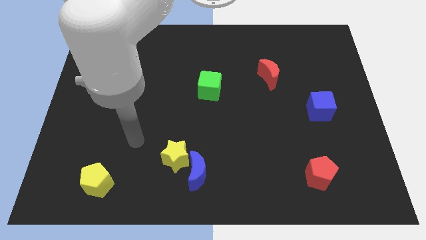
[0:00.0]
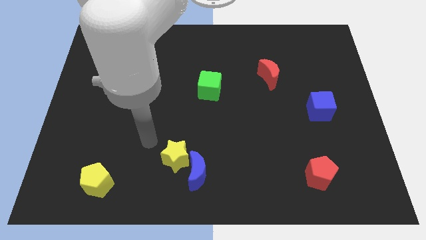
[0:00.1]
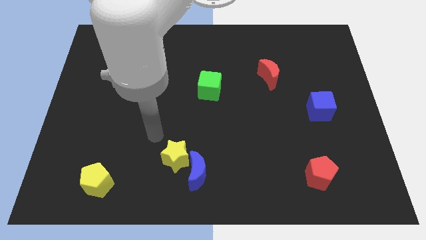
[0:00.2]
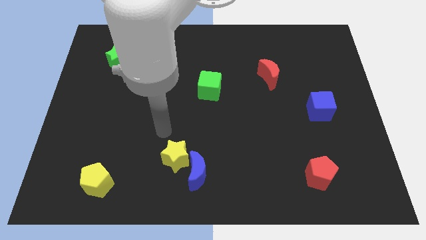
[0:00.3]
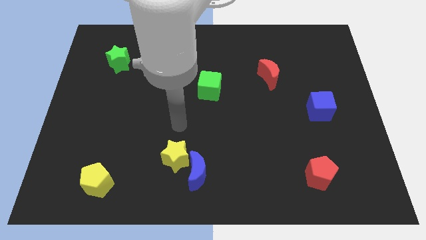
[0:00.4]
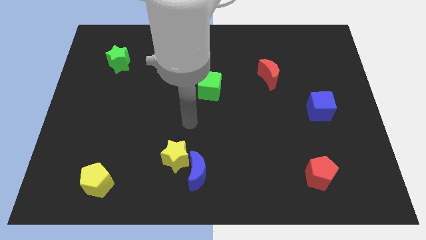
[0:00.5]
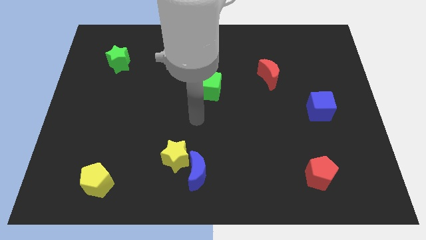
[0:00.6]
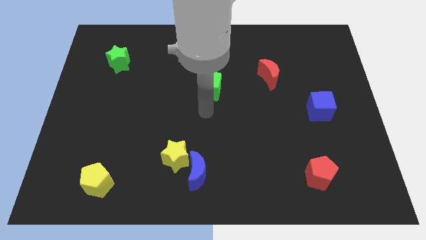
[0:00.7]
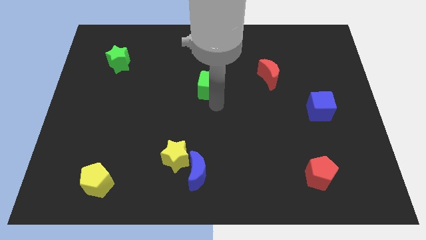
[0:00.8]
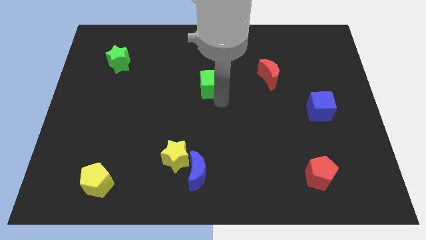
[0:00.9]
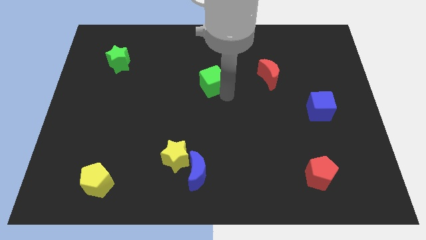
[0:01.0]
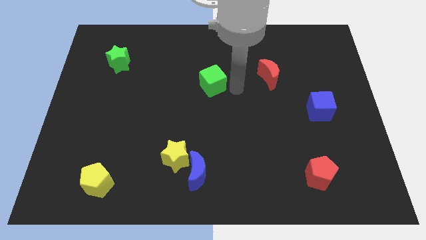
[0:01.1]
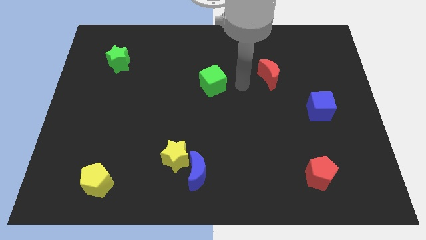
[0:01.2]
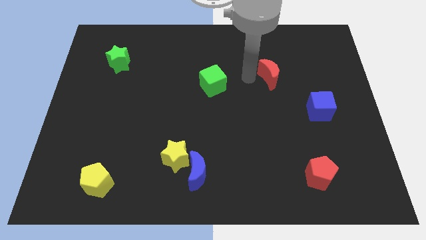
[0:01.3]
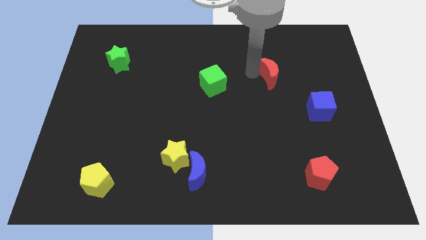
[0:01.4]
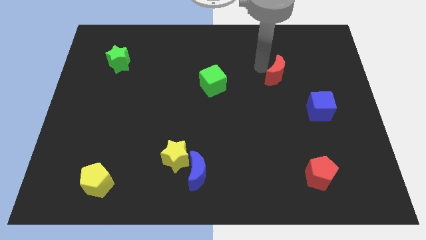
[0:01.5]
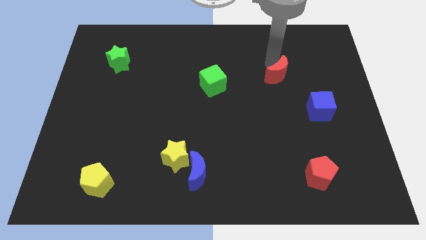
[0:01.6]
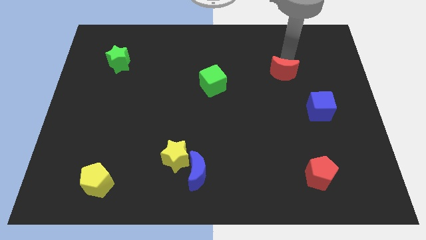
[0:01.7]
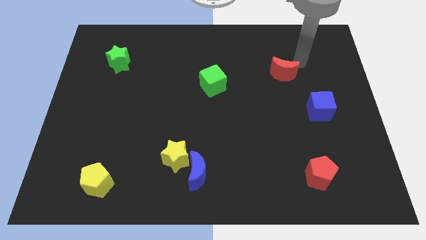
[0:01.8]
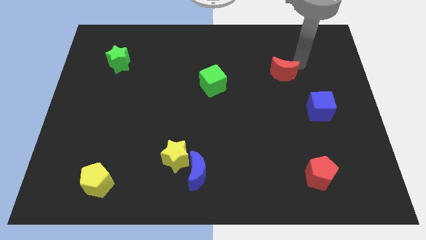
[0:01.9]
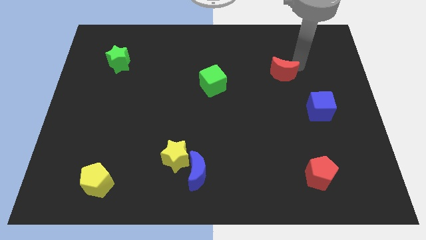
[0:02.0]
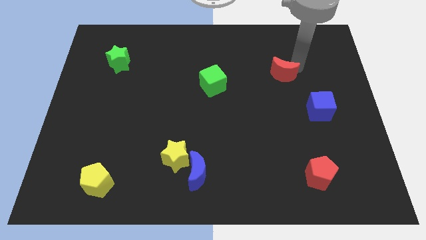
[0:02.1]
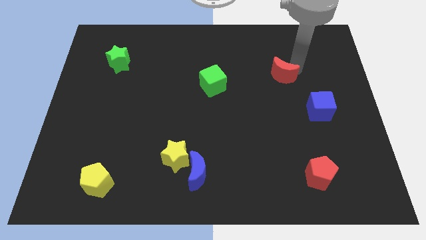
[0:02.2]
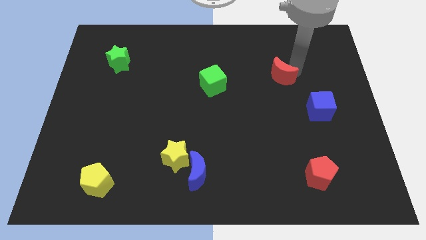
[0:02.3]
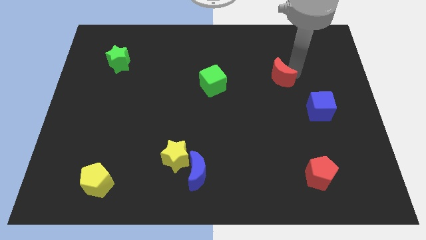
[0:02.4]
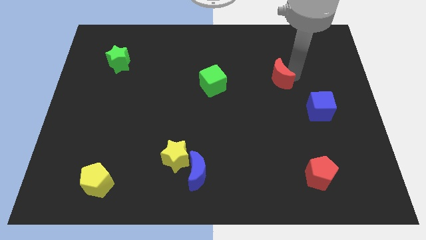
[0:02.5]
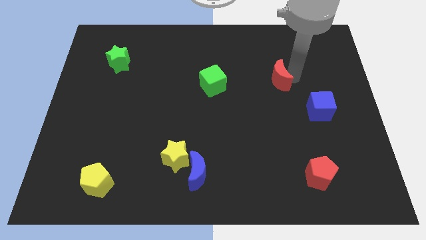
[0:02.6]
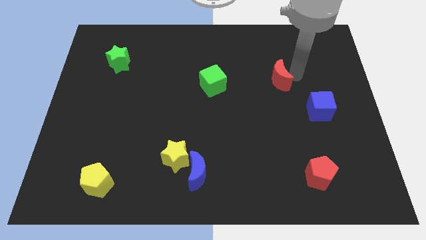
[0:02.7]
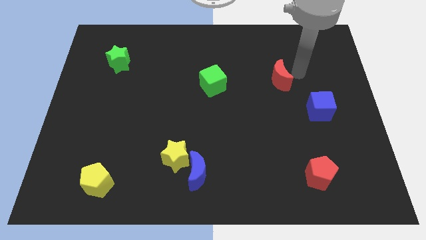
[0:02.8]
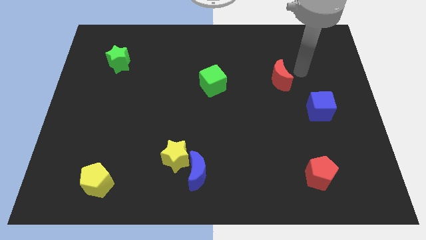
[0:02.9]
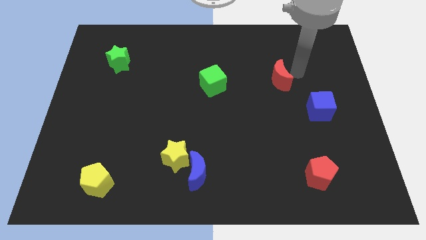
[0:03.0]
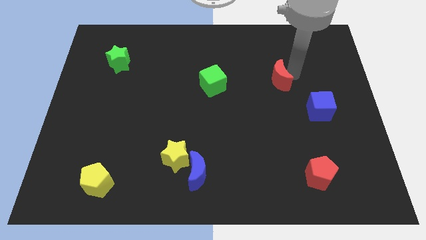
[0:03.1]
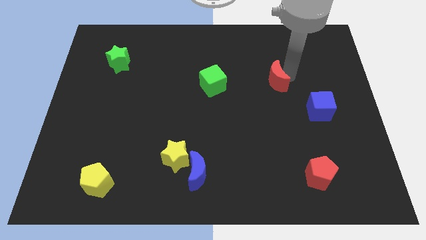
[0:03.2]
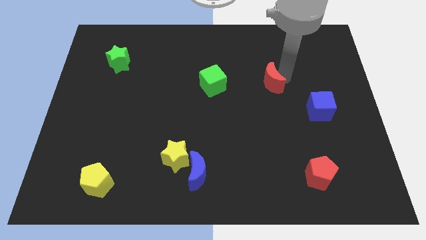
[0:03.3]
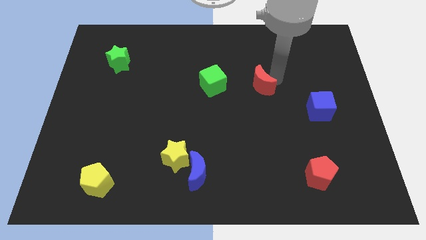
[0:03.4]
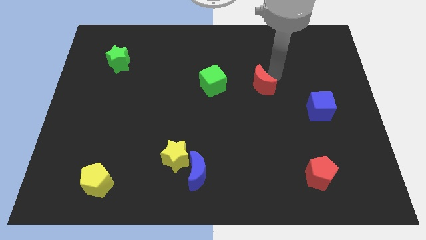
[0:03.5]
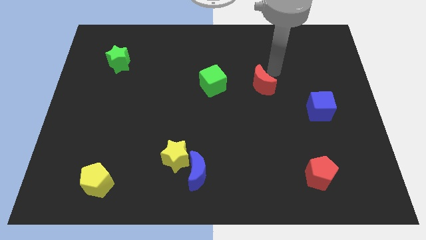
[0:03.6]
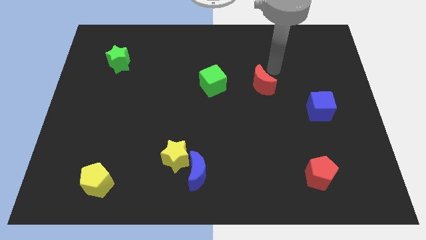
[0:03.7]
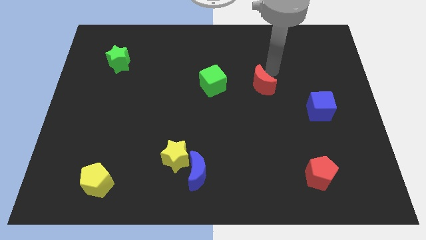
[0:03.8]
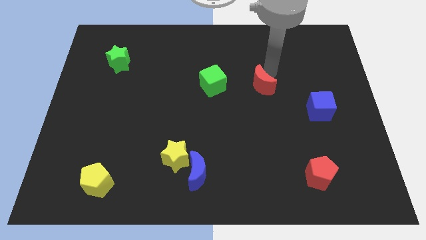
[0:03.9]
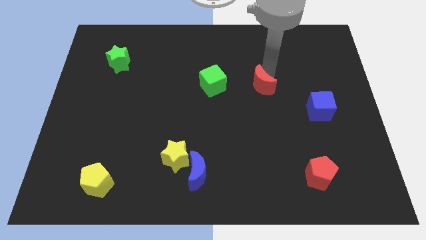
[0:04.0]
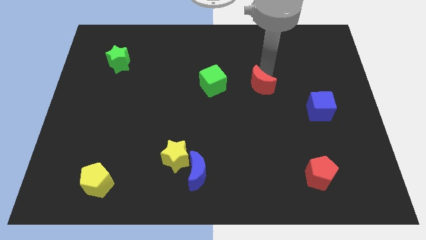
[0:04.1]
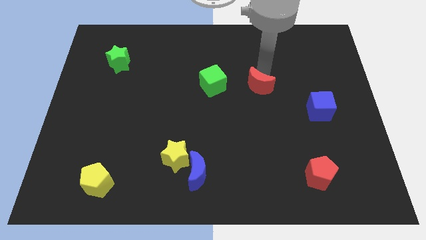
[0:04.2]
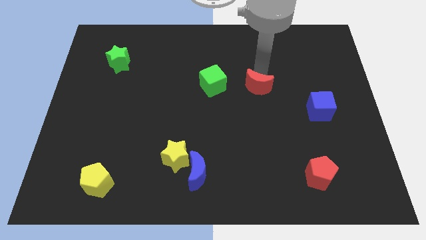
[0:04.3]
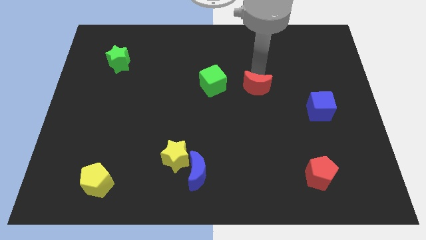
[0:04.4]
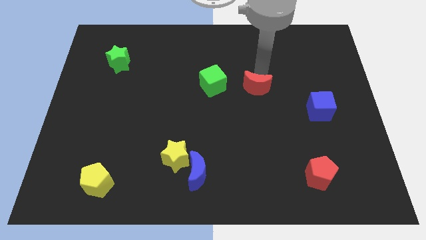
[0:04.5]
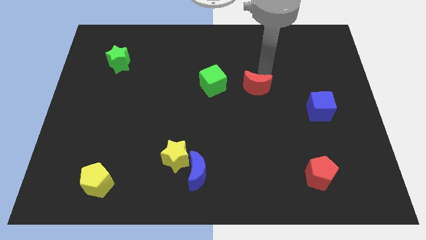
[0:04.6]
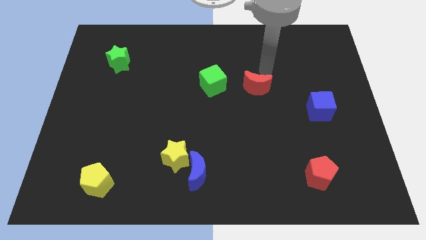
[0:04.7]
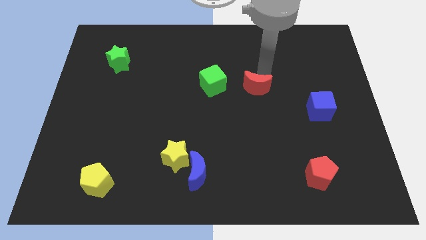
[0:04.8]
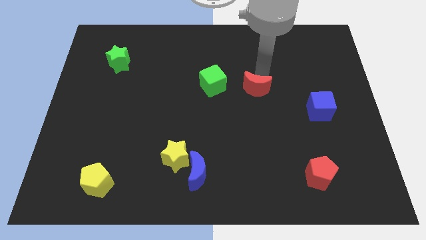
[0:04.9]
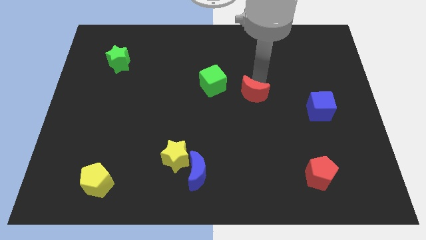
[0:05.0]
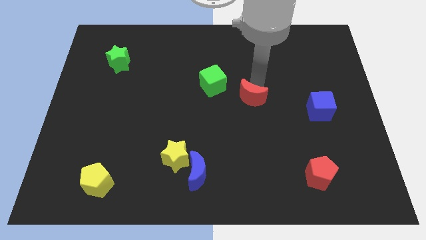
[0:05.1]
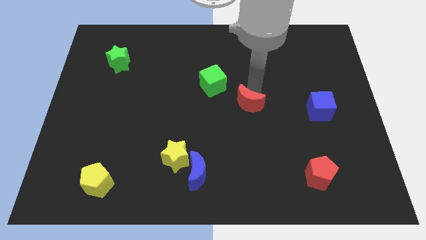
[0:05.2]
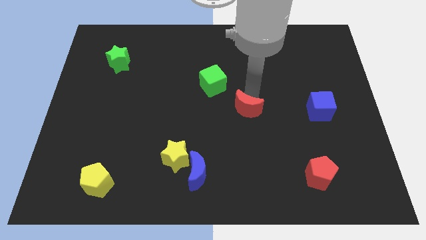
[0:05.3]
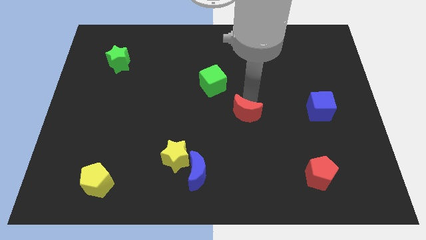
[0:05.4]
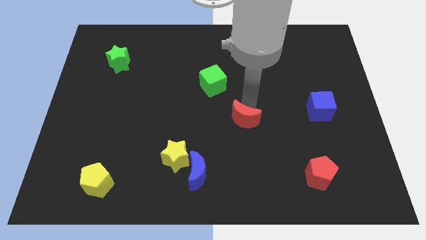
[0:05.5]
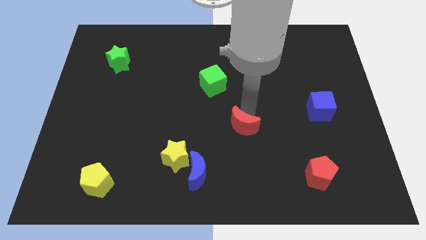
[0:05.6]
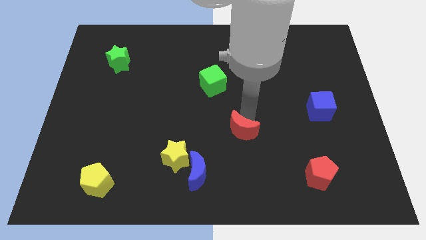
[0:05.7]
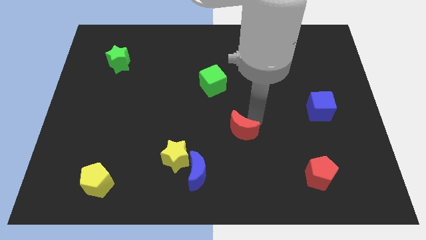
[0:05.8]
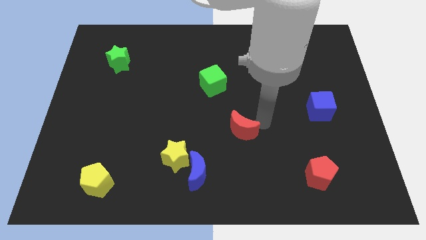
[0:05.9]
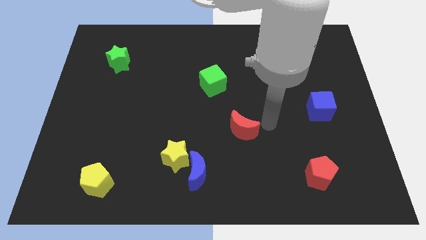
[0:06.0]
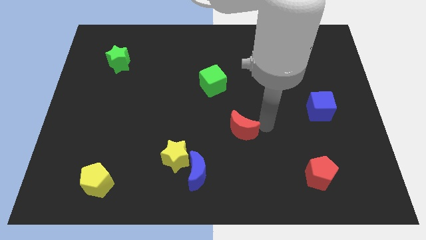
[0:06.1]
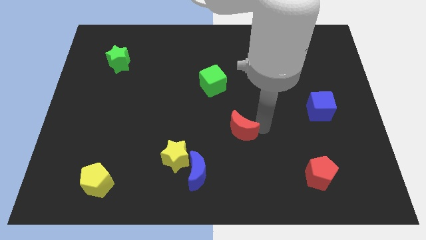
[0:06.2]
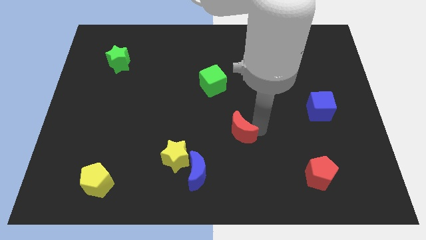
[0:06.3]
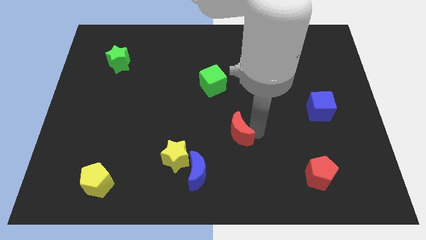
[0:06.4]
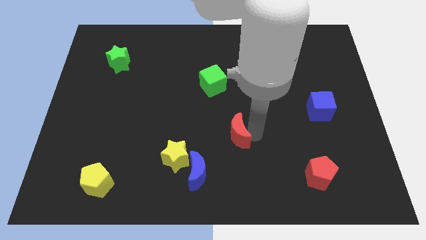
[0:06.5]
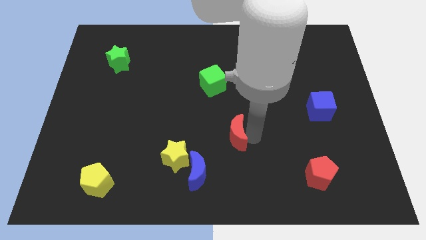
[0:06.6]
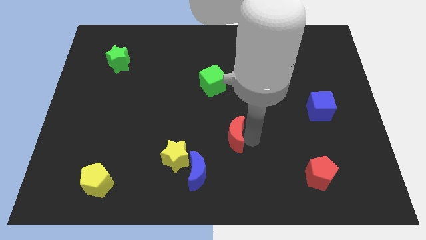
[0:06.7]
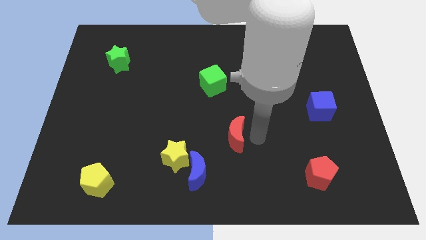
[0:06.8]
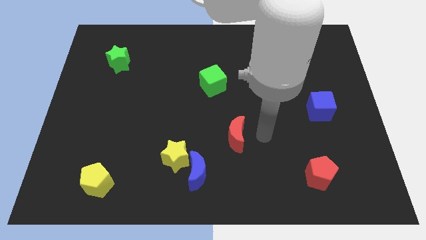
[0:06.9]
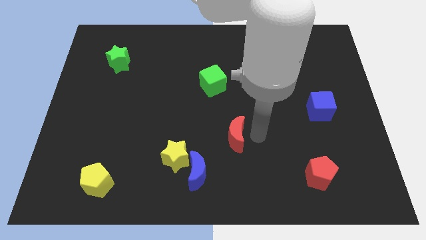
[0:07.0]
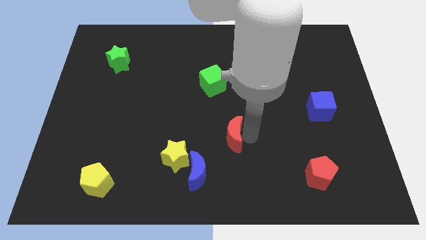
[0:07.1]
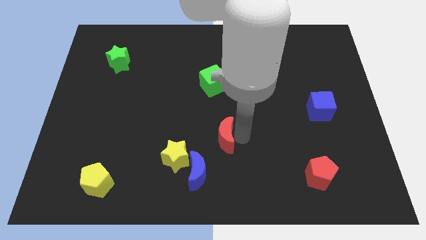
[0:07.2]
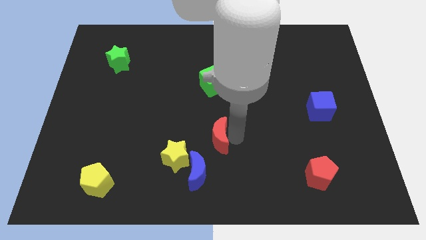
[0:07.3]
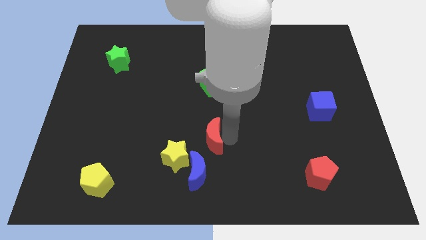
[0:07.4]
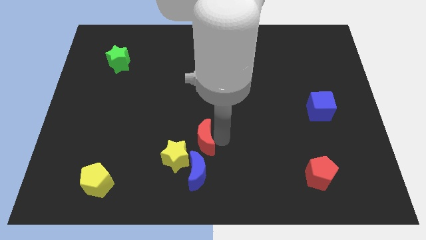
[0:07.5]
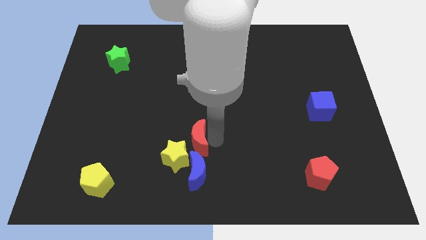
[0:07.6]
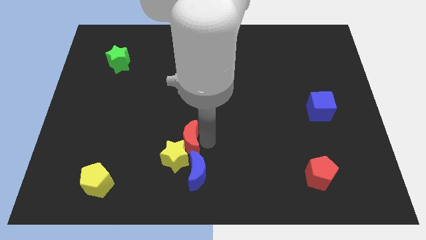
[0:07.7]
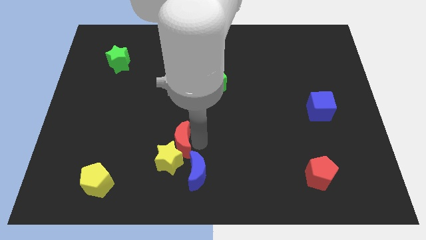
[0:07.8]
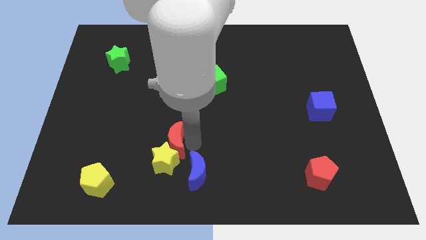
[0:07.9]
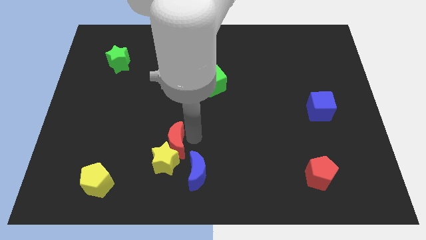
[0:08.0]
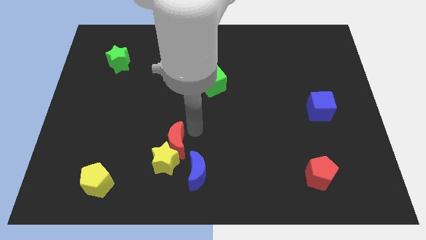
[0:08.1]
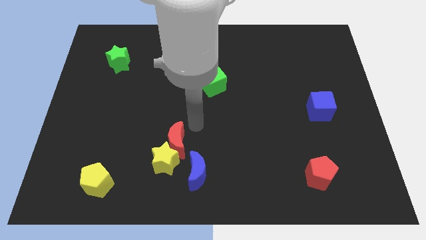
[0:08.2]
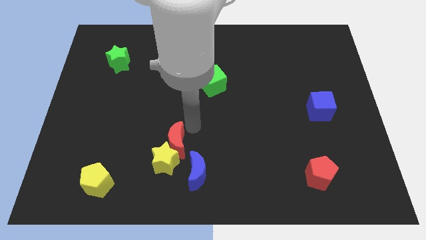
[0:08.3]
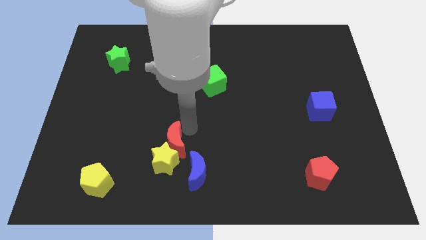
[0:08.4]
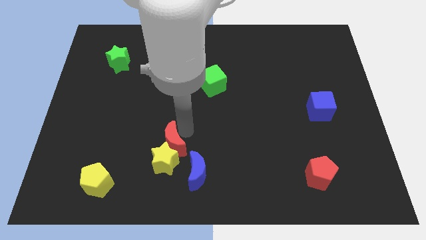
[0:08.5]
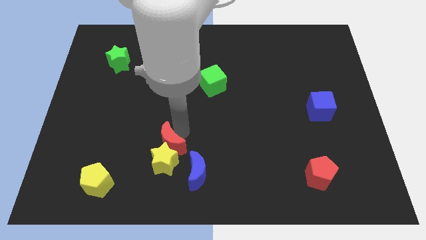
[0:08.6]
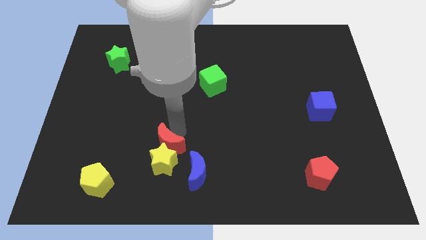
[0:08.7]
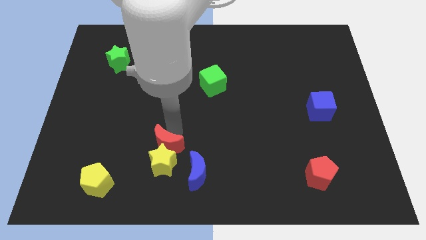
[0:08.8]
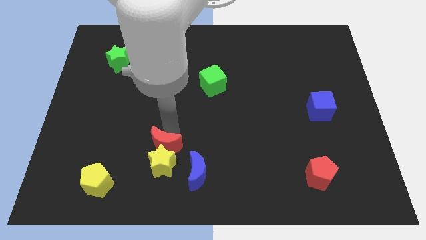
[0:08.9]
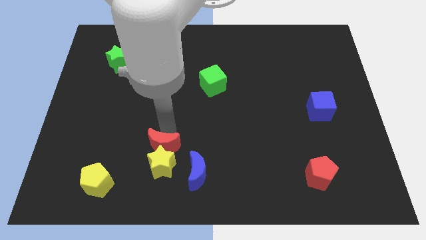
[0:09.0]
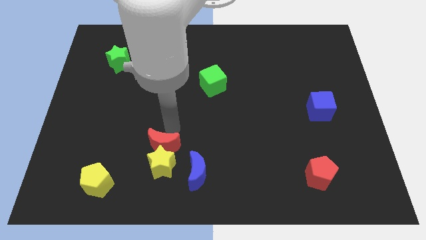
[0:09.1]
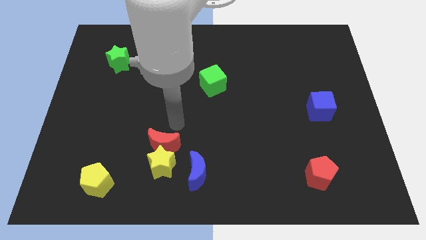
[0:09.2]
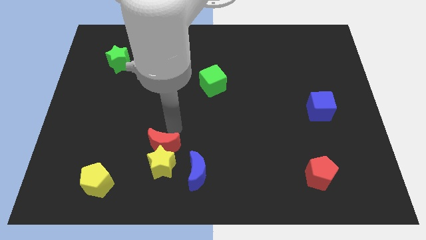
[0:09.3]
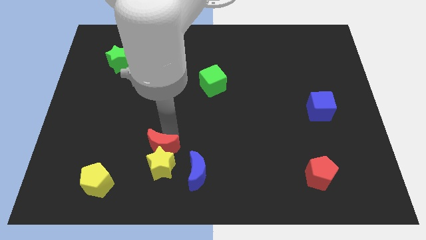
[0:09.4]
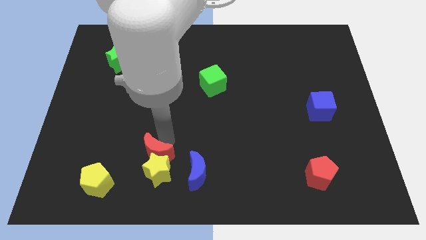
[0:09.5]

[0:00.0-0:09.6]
push the red moon left of the blue moon
